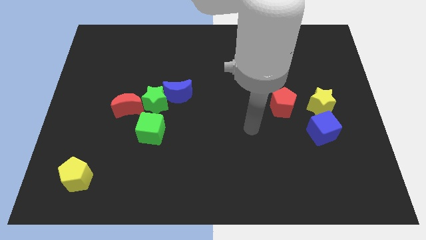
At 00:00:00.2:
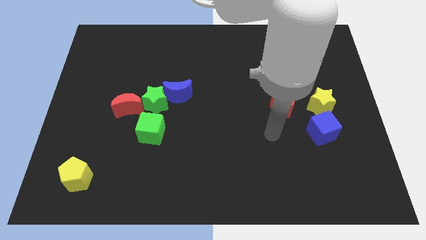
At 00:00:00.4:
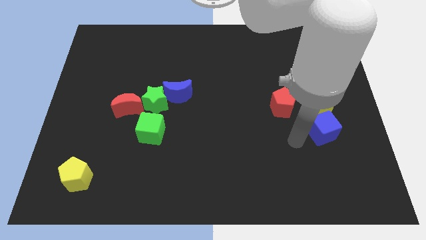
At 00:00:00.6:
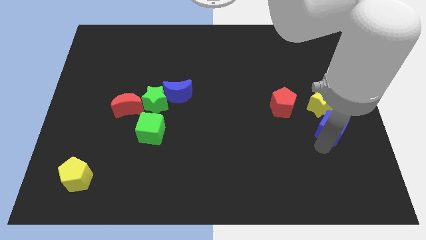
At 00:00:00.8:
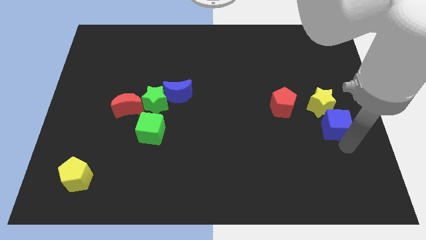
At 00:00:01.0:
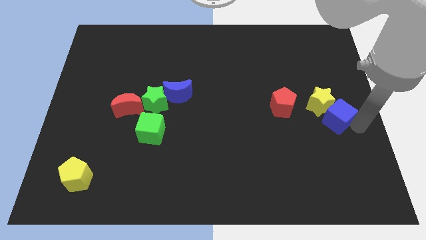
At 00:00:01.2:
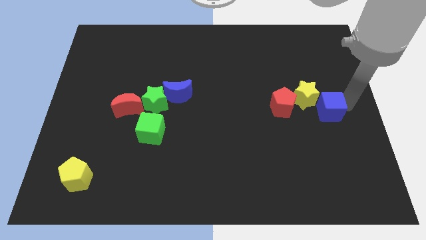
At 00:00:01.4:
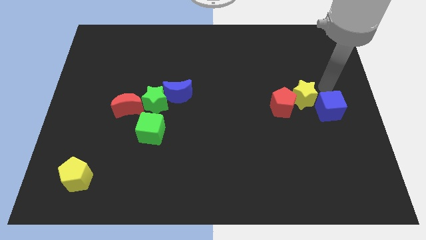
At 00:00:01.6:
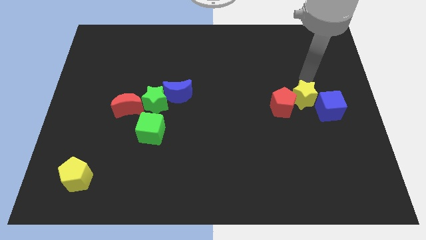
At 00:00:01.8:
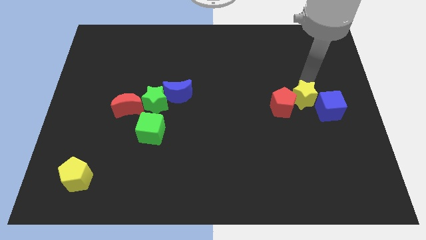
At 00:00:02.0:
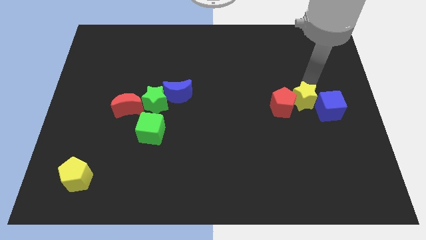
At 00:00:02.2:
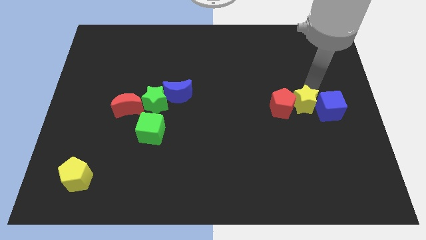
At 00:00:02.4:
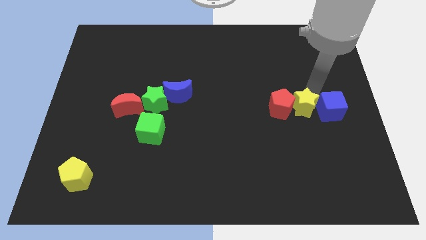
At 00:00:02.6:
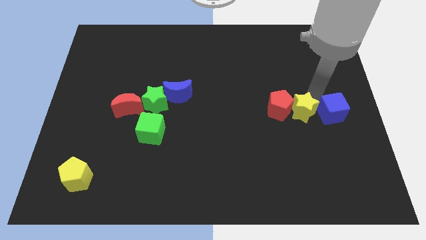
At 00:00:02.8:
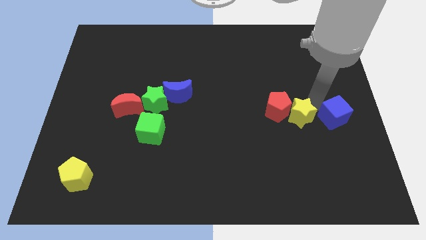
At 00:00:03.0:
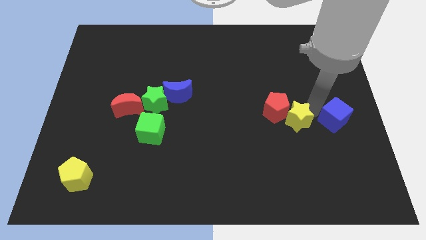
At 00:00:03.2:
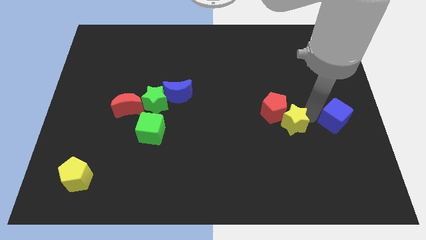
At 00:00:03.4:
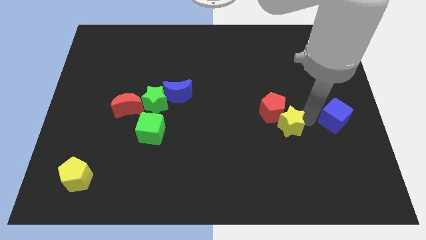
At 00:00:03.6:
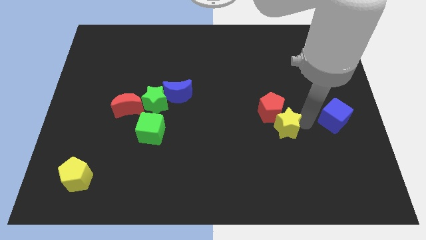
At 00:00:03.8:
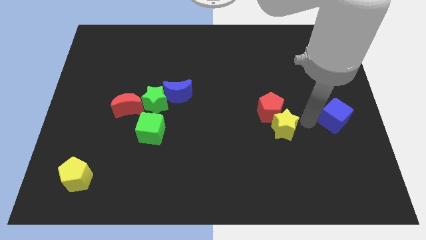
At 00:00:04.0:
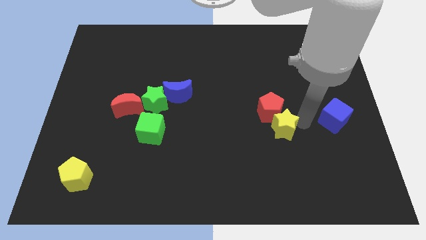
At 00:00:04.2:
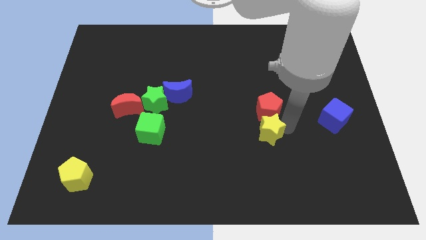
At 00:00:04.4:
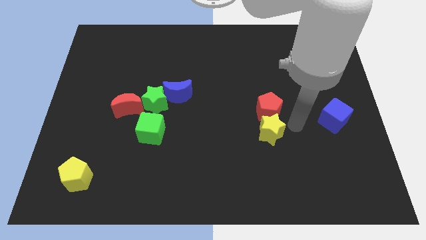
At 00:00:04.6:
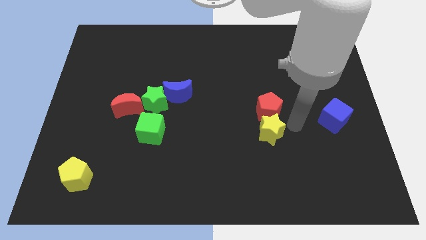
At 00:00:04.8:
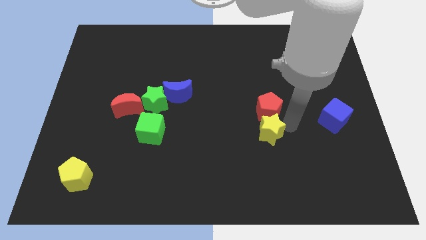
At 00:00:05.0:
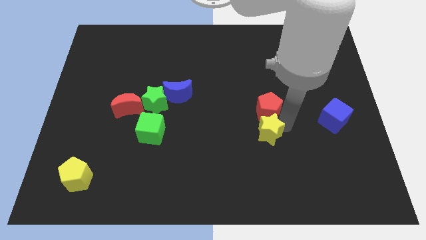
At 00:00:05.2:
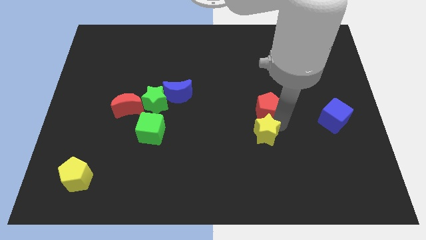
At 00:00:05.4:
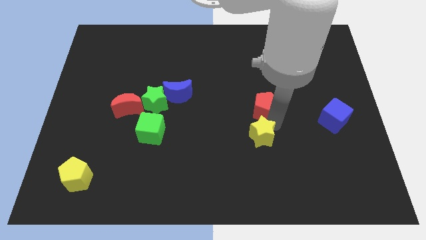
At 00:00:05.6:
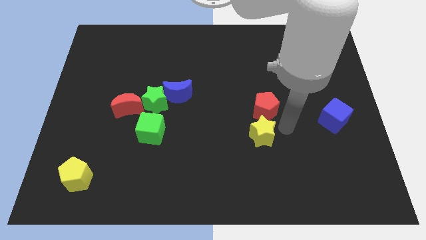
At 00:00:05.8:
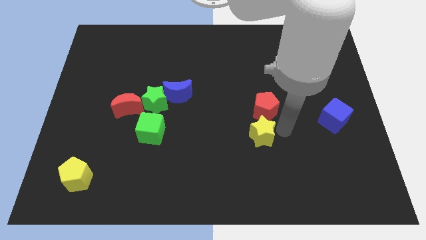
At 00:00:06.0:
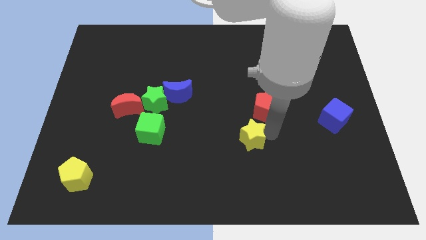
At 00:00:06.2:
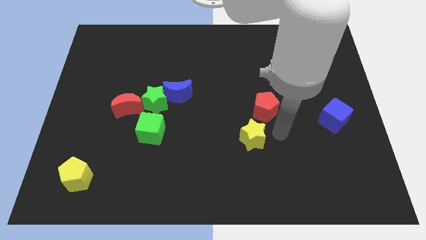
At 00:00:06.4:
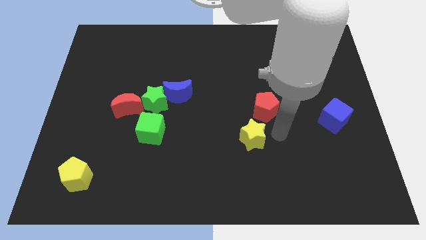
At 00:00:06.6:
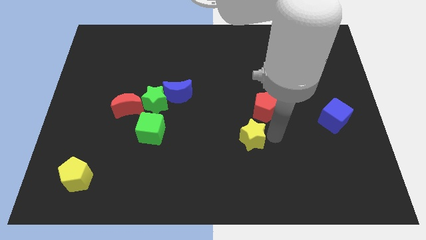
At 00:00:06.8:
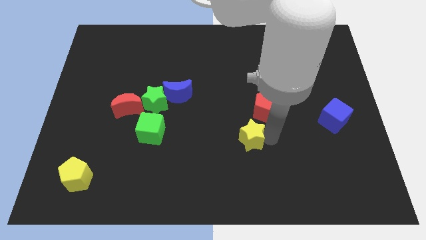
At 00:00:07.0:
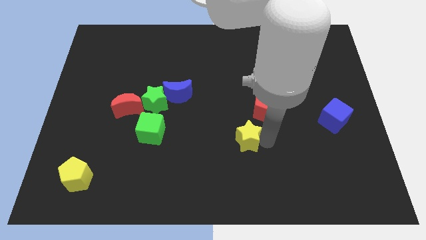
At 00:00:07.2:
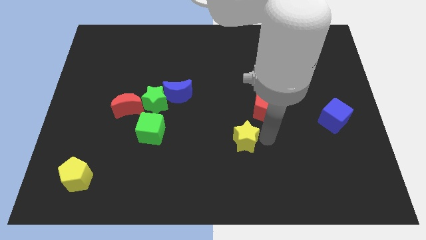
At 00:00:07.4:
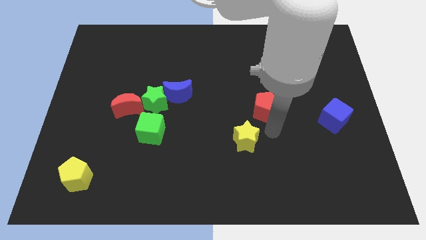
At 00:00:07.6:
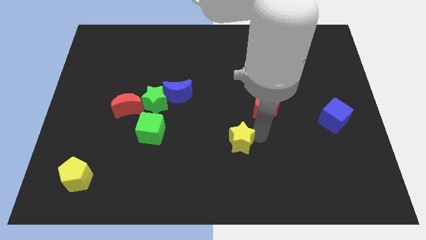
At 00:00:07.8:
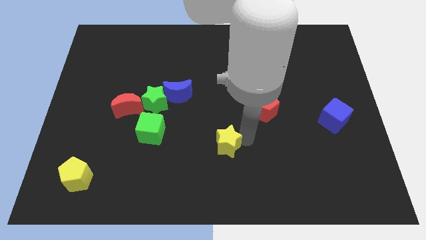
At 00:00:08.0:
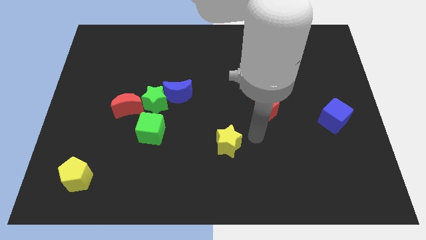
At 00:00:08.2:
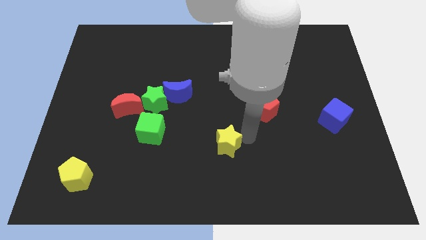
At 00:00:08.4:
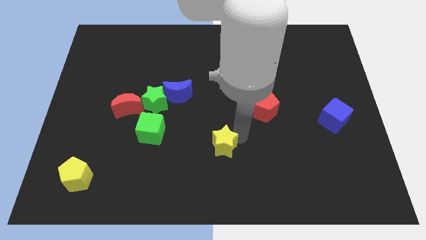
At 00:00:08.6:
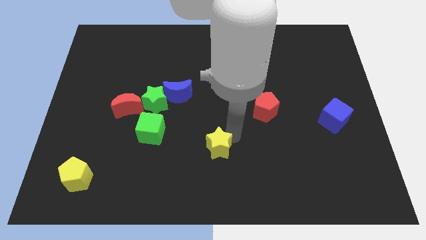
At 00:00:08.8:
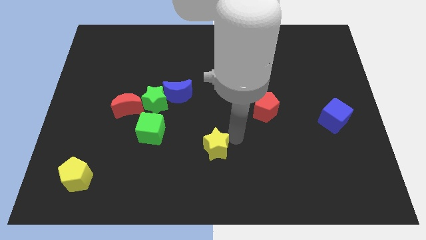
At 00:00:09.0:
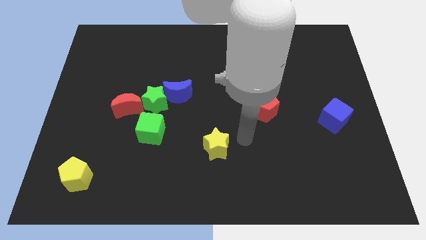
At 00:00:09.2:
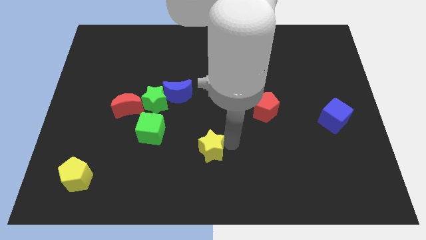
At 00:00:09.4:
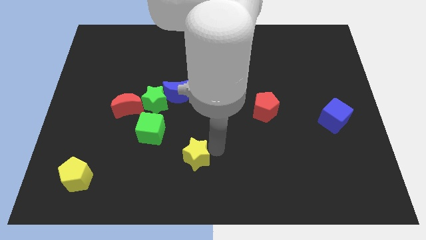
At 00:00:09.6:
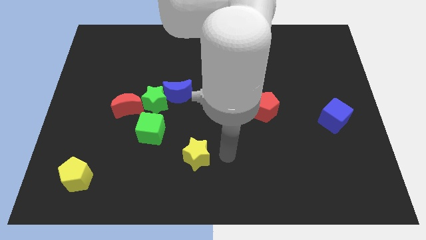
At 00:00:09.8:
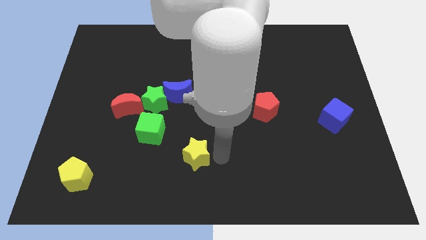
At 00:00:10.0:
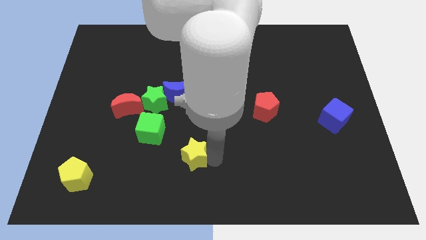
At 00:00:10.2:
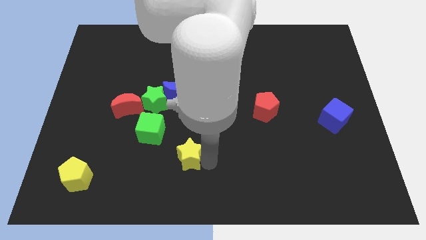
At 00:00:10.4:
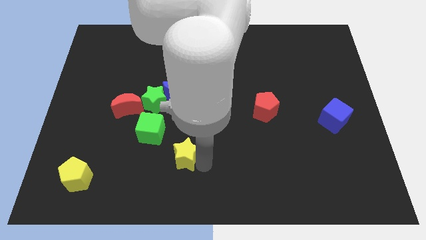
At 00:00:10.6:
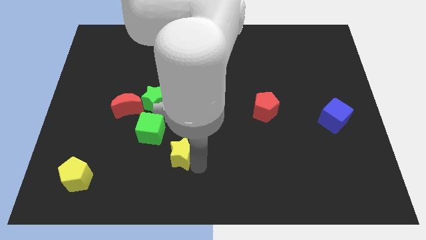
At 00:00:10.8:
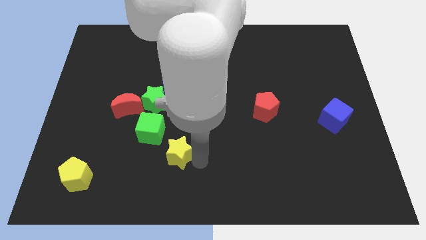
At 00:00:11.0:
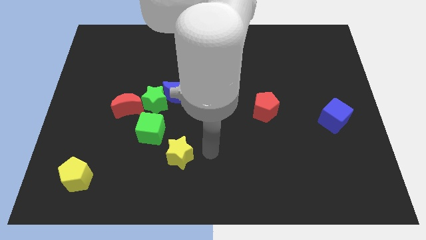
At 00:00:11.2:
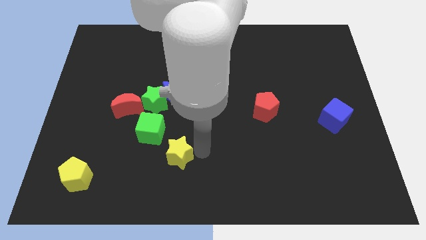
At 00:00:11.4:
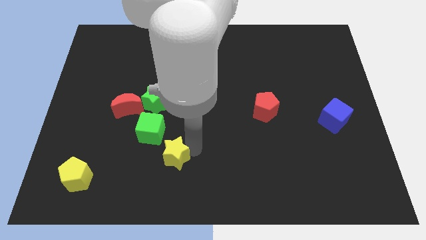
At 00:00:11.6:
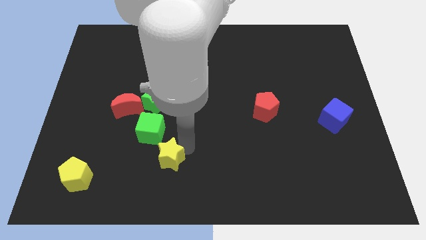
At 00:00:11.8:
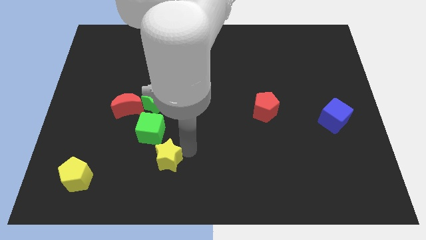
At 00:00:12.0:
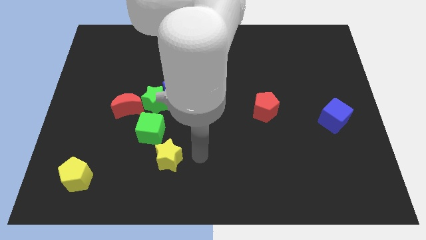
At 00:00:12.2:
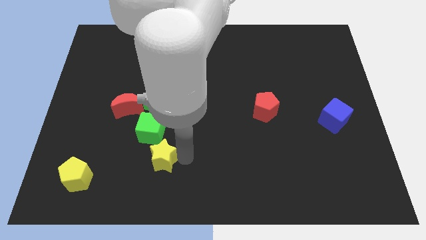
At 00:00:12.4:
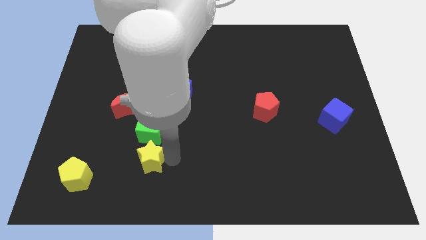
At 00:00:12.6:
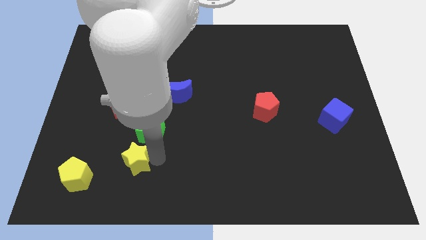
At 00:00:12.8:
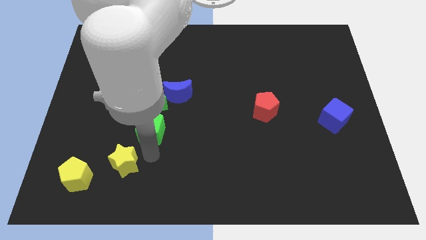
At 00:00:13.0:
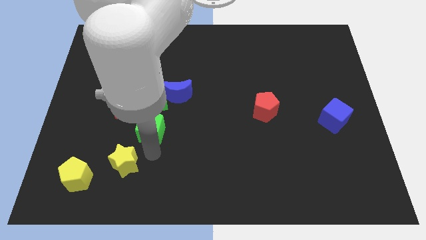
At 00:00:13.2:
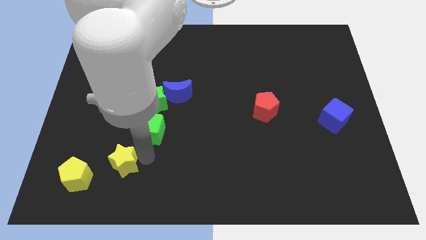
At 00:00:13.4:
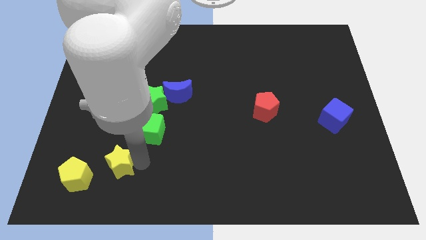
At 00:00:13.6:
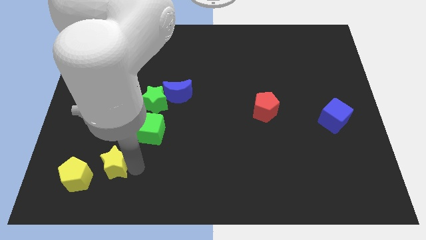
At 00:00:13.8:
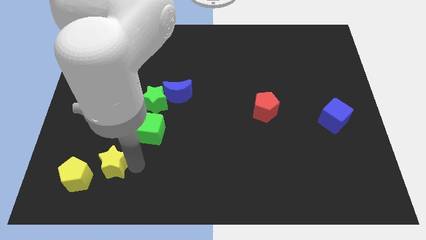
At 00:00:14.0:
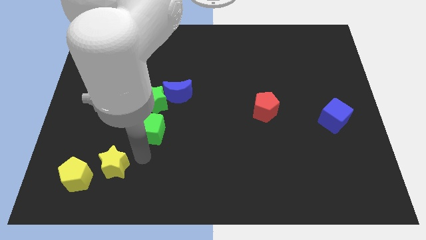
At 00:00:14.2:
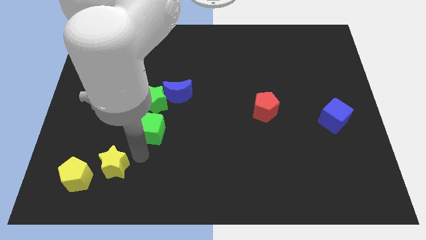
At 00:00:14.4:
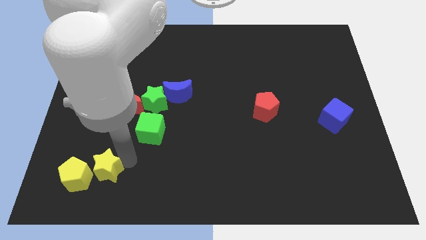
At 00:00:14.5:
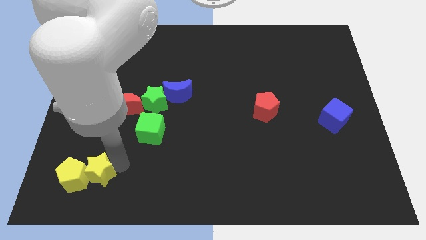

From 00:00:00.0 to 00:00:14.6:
slide the yellow star next to the yellow pentagon
